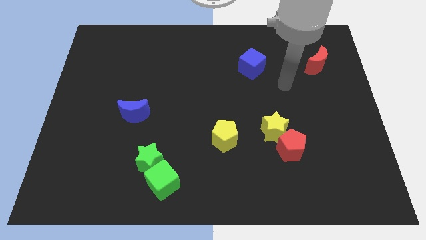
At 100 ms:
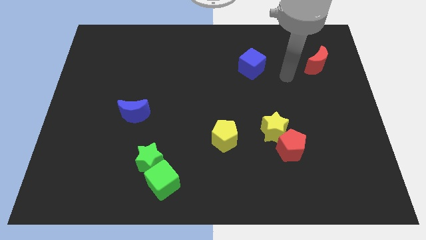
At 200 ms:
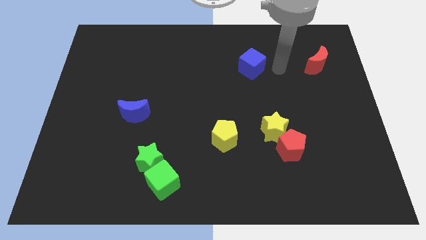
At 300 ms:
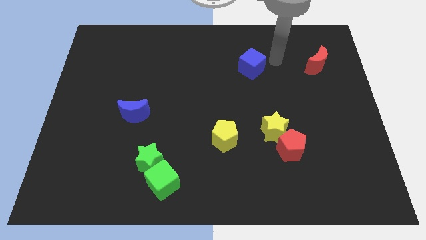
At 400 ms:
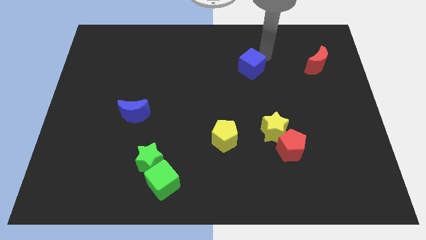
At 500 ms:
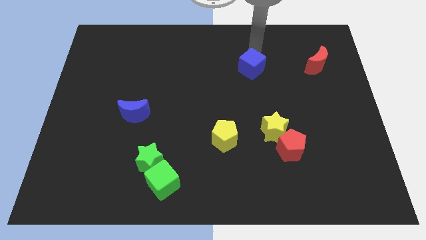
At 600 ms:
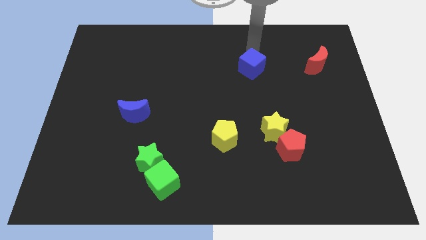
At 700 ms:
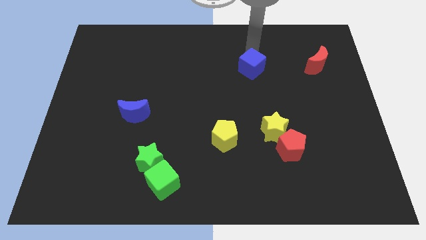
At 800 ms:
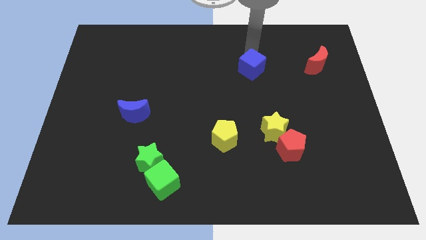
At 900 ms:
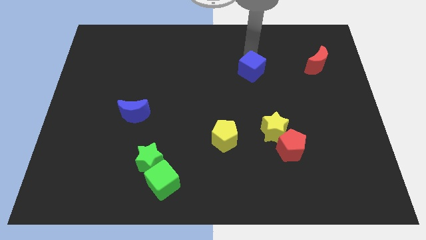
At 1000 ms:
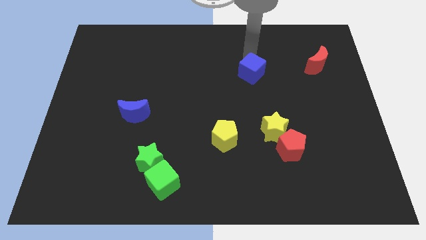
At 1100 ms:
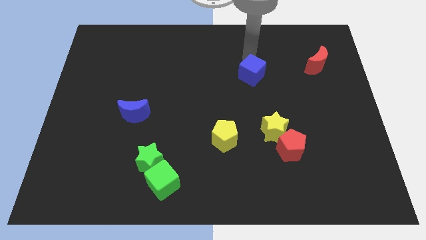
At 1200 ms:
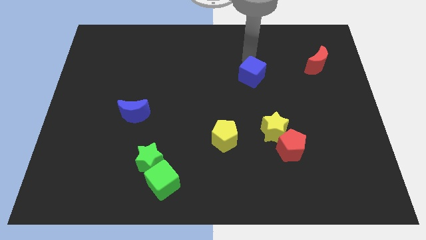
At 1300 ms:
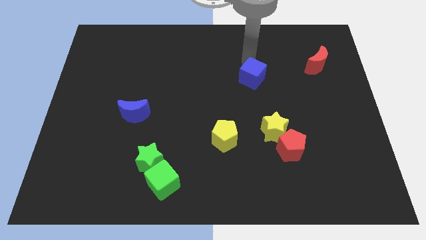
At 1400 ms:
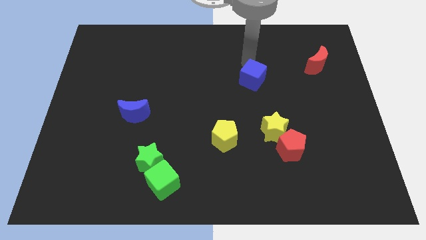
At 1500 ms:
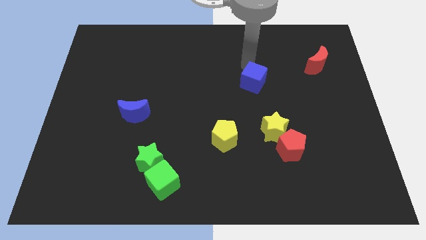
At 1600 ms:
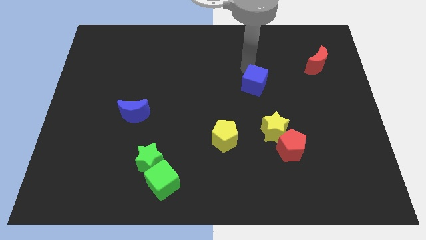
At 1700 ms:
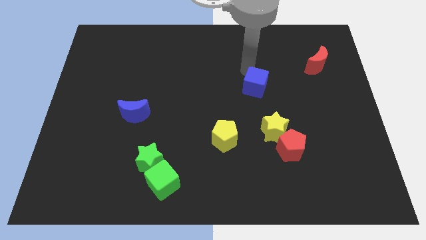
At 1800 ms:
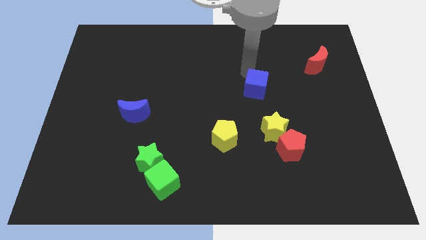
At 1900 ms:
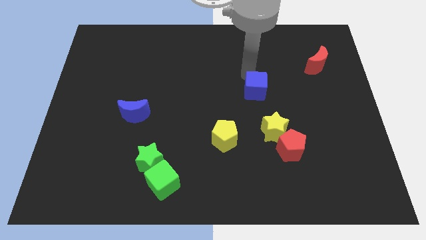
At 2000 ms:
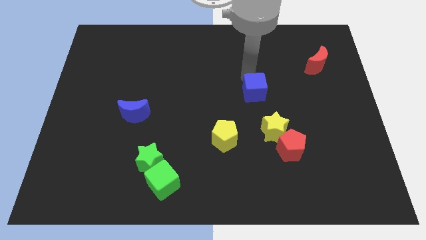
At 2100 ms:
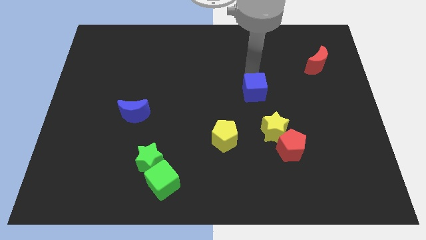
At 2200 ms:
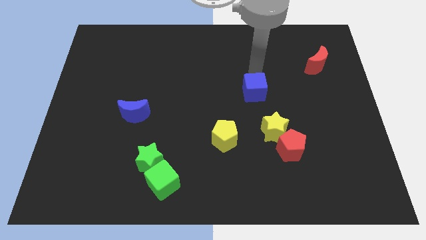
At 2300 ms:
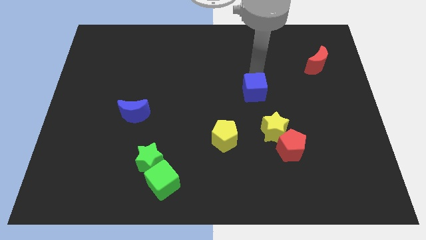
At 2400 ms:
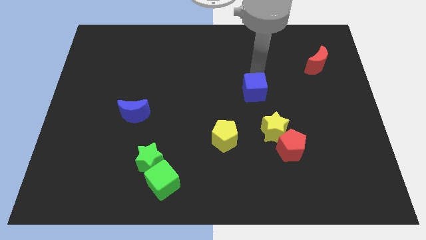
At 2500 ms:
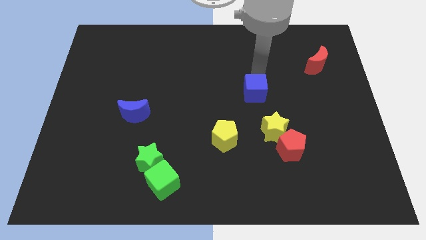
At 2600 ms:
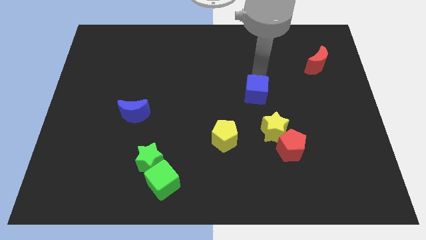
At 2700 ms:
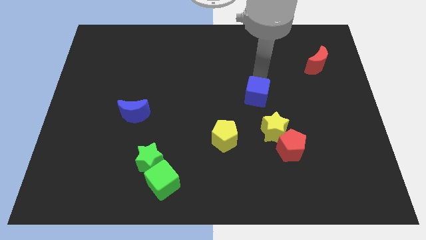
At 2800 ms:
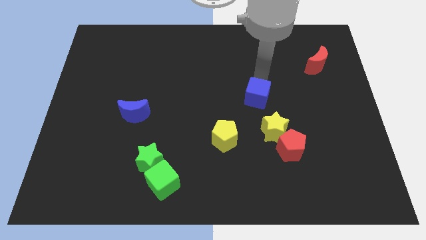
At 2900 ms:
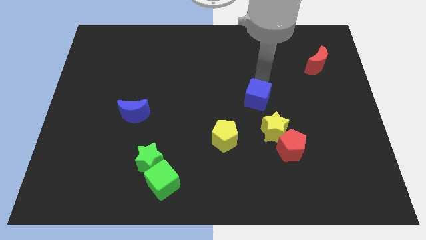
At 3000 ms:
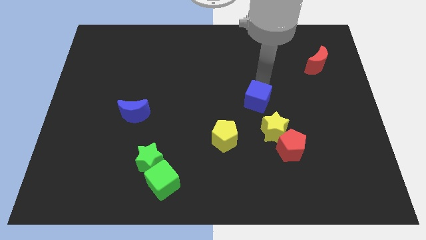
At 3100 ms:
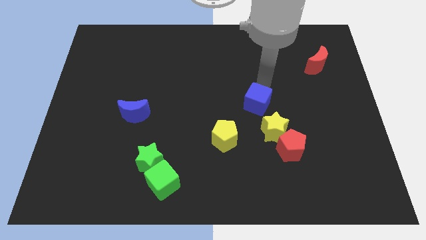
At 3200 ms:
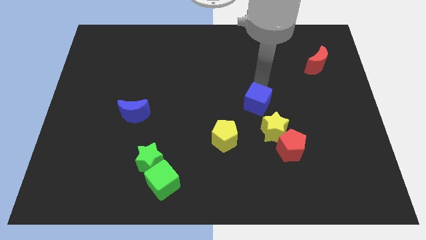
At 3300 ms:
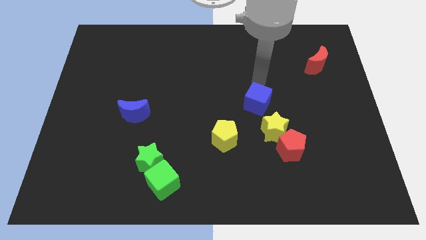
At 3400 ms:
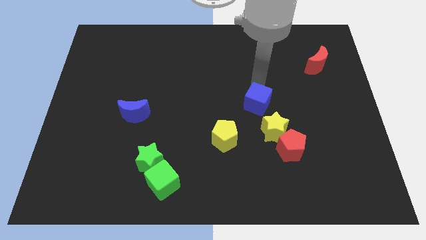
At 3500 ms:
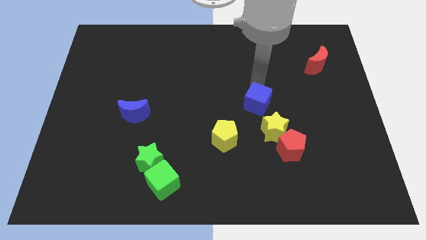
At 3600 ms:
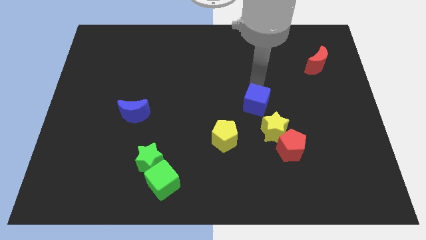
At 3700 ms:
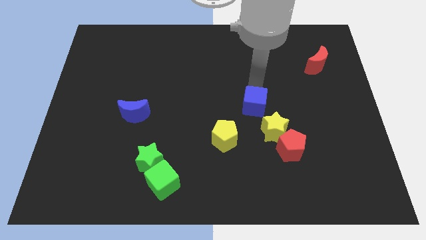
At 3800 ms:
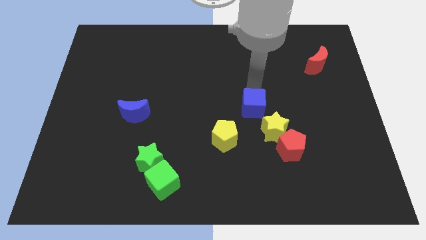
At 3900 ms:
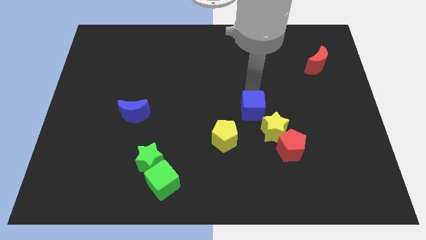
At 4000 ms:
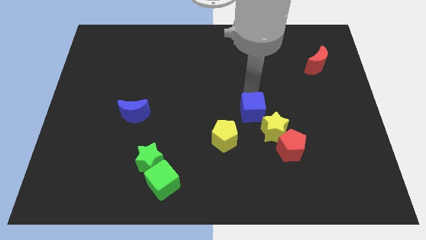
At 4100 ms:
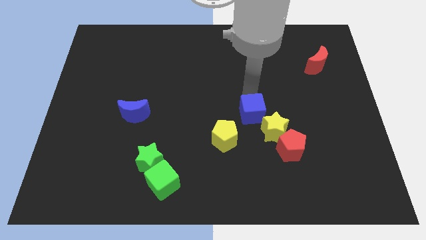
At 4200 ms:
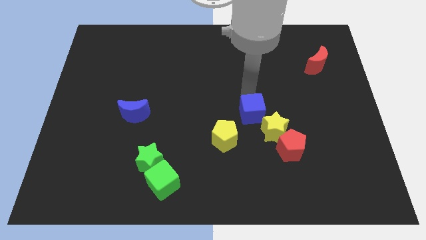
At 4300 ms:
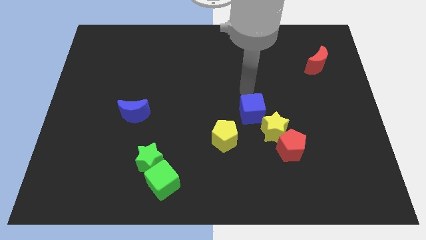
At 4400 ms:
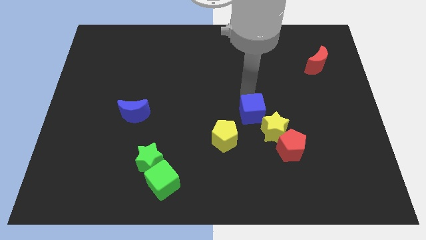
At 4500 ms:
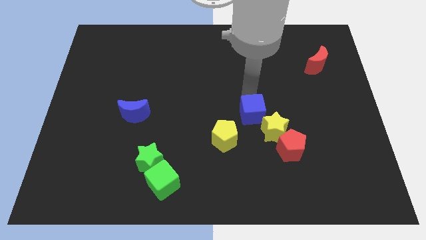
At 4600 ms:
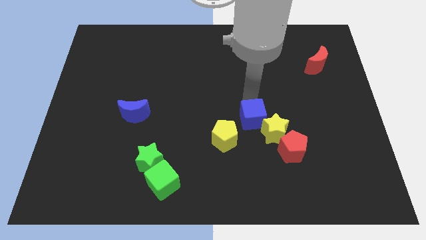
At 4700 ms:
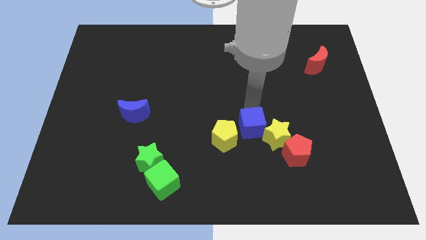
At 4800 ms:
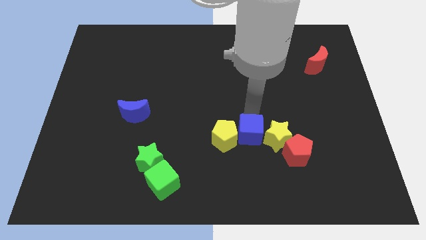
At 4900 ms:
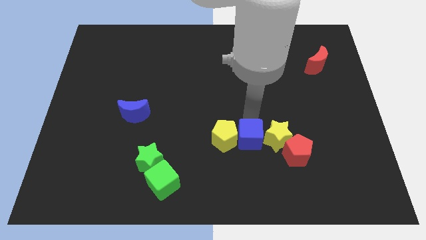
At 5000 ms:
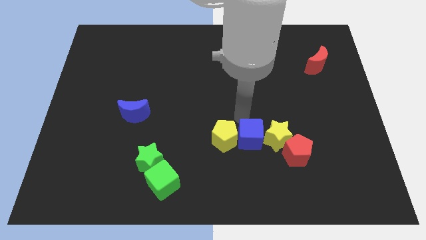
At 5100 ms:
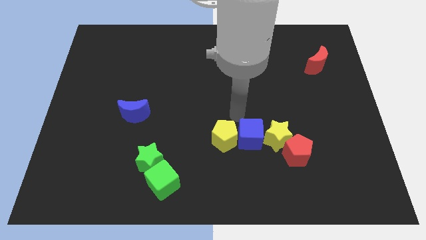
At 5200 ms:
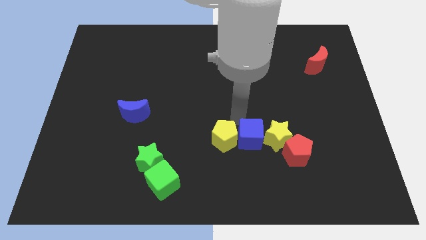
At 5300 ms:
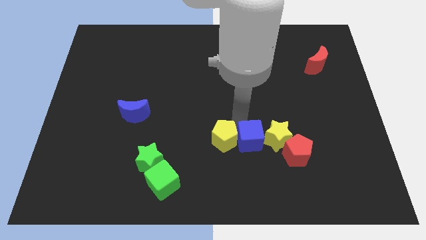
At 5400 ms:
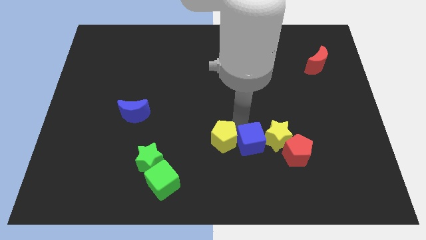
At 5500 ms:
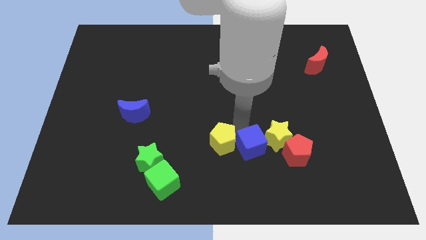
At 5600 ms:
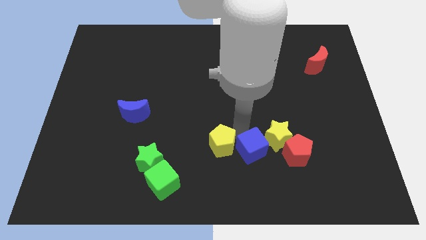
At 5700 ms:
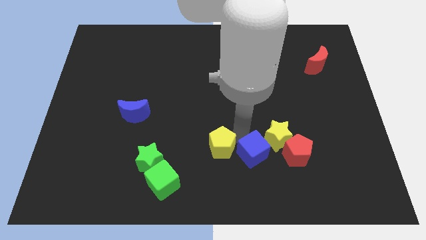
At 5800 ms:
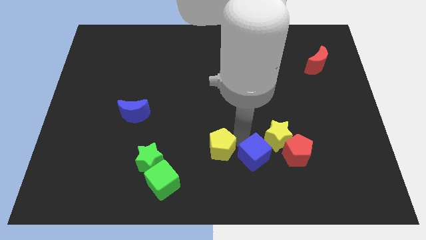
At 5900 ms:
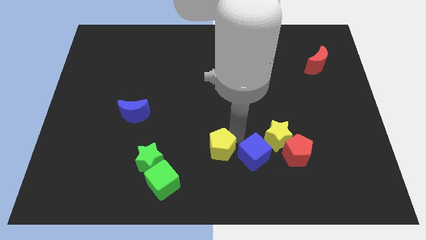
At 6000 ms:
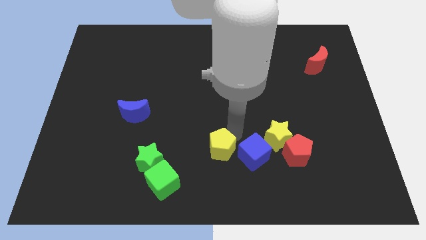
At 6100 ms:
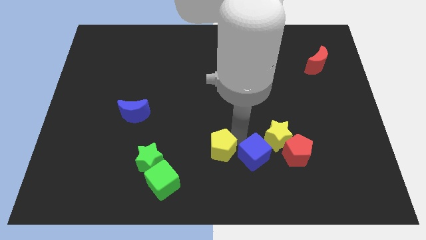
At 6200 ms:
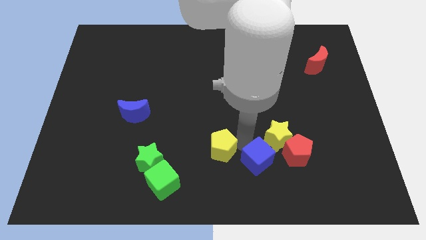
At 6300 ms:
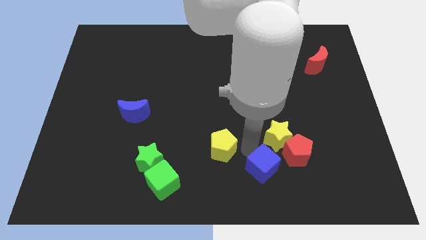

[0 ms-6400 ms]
push the blue cube diagonally down and to the left of the red pentagon

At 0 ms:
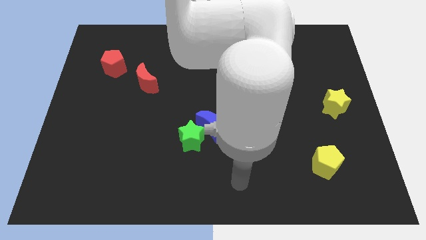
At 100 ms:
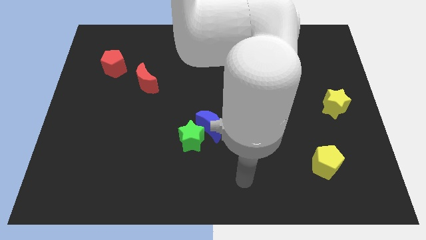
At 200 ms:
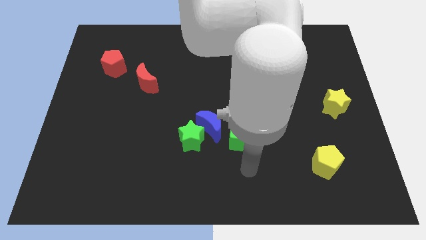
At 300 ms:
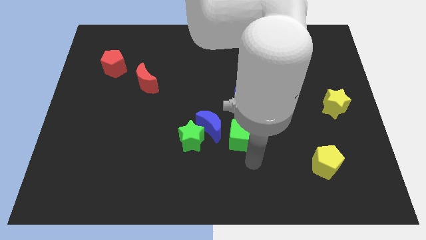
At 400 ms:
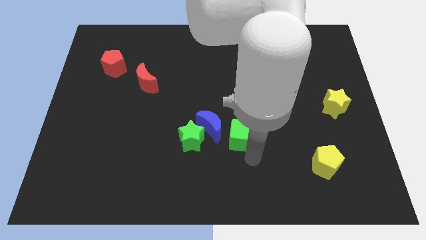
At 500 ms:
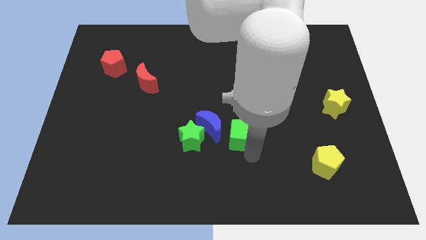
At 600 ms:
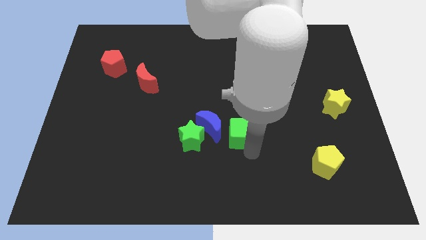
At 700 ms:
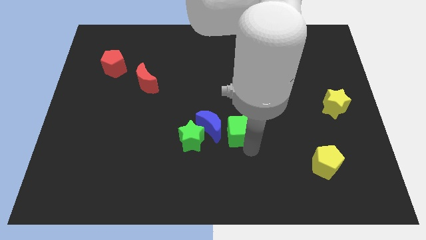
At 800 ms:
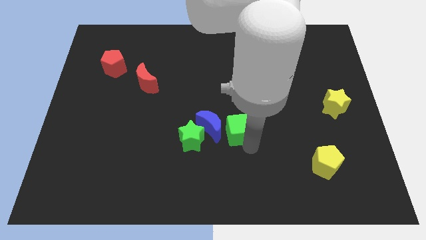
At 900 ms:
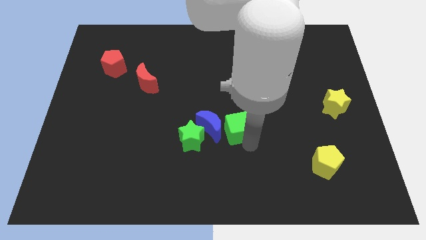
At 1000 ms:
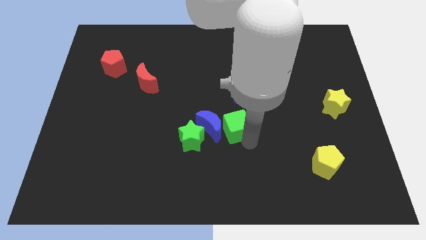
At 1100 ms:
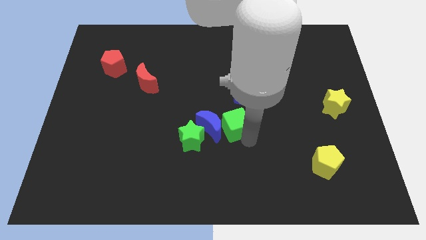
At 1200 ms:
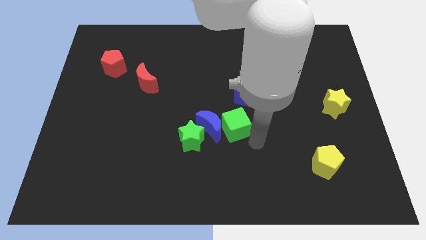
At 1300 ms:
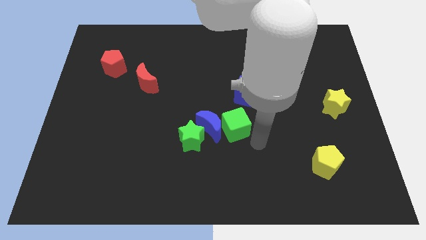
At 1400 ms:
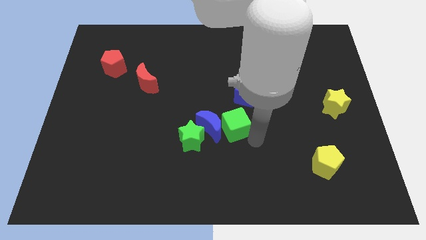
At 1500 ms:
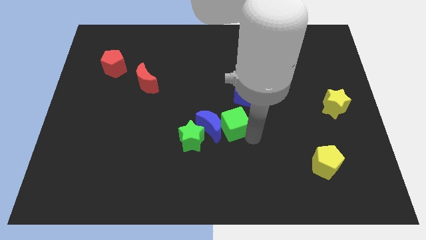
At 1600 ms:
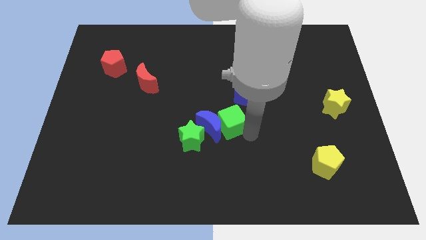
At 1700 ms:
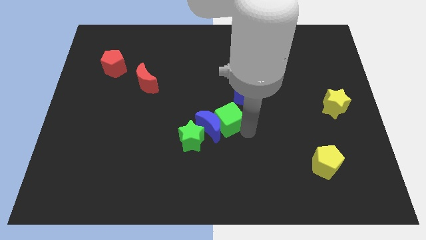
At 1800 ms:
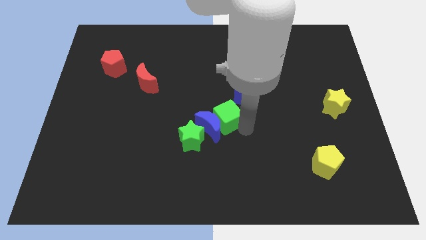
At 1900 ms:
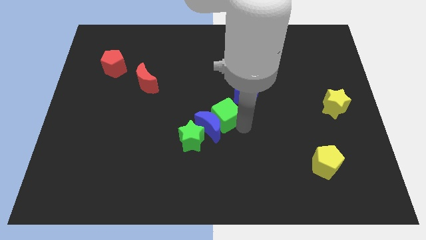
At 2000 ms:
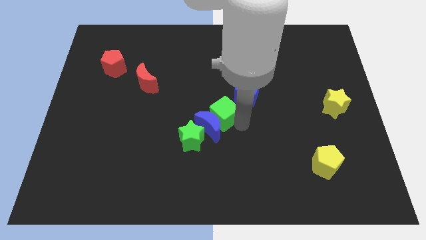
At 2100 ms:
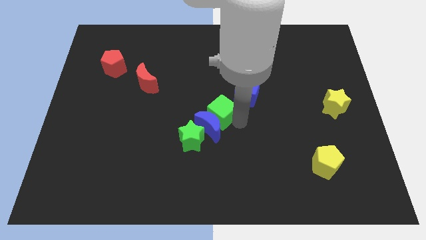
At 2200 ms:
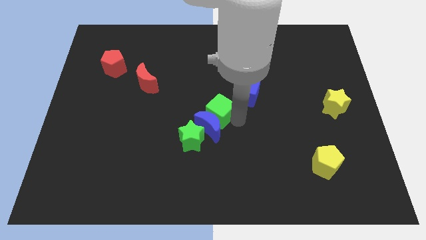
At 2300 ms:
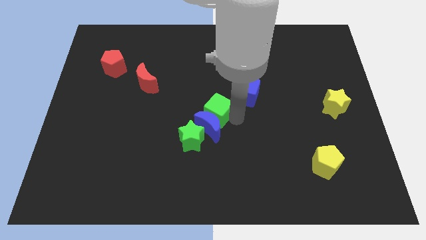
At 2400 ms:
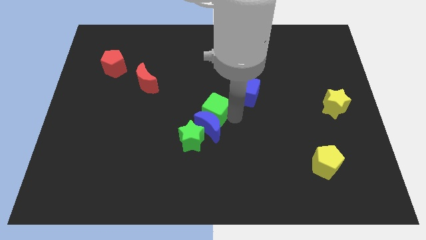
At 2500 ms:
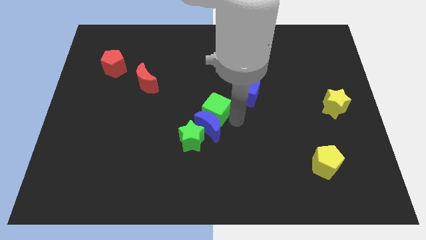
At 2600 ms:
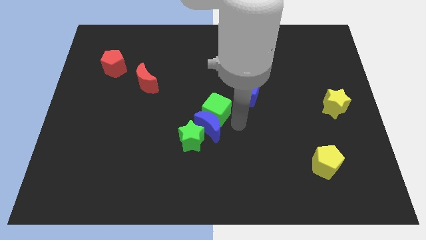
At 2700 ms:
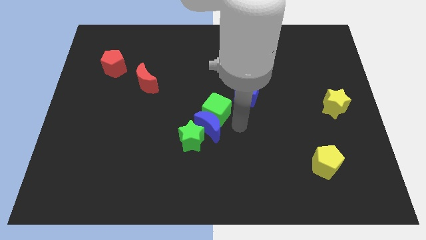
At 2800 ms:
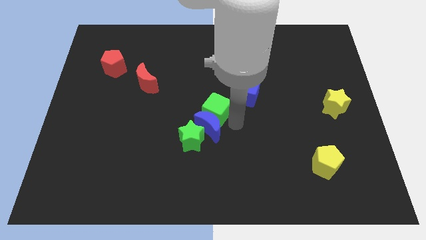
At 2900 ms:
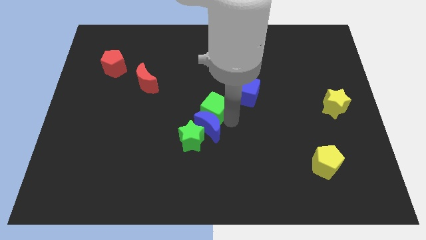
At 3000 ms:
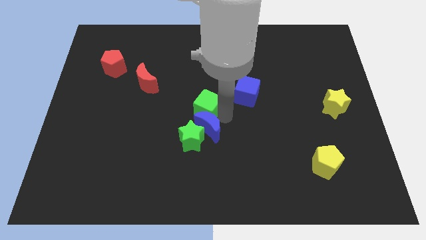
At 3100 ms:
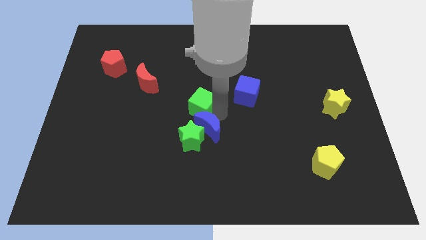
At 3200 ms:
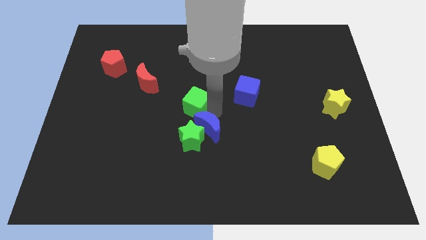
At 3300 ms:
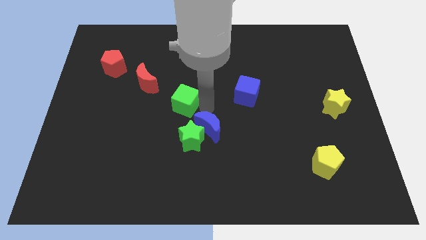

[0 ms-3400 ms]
push the green cube to the bottom right side of the red moon
